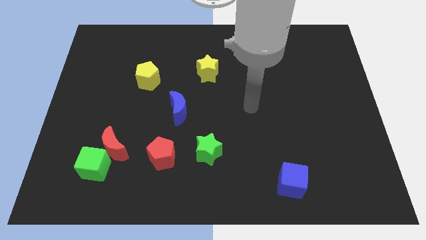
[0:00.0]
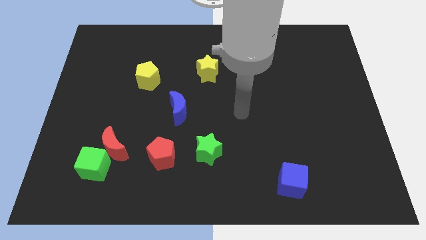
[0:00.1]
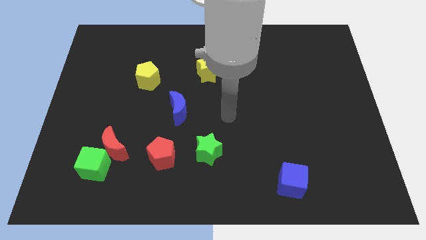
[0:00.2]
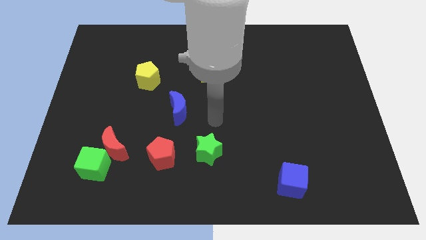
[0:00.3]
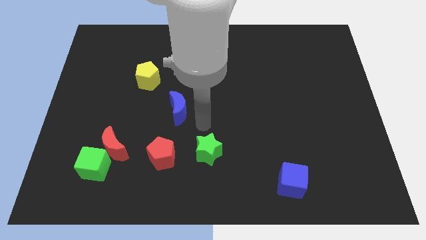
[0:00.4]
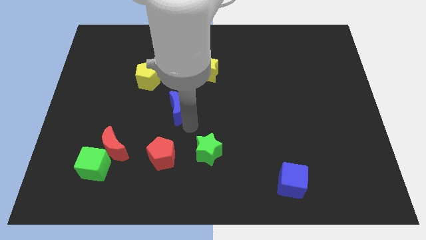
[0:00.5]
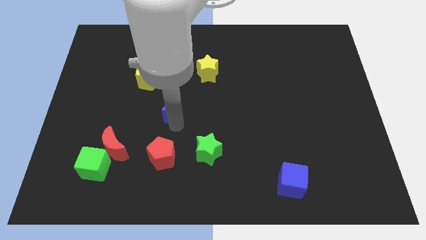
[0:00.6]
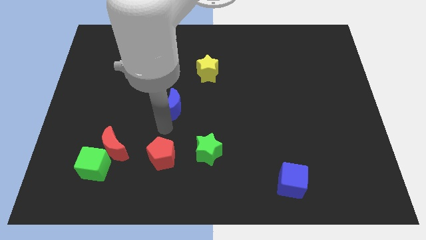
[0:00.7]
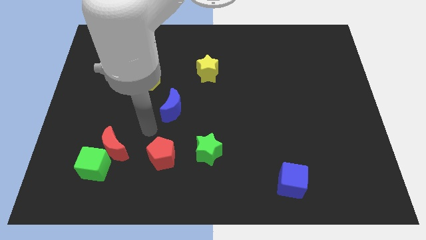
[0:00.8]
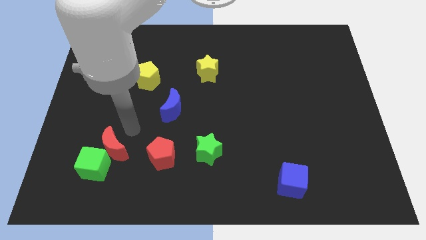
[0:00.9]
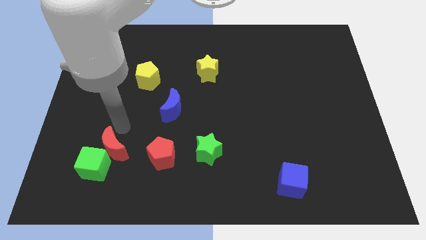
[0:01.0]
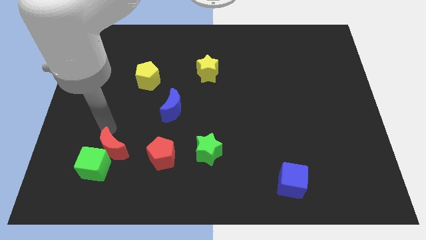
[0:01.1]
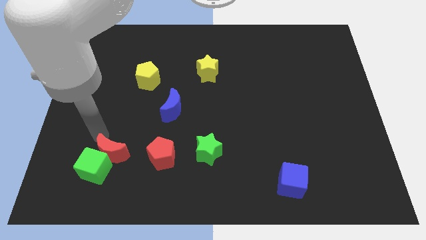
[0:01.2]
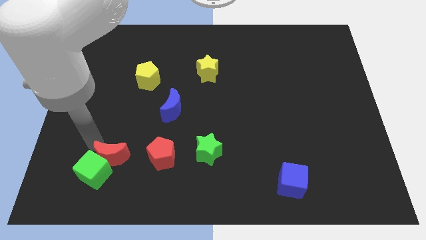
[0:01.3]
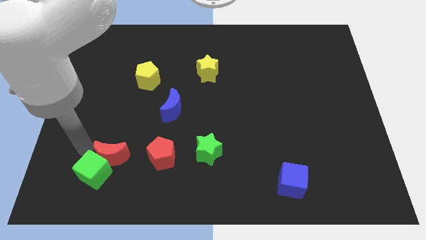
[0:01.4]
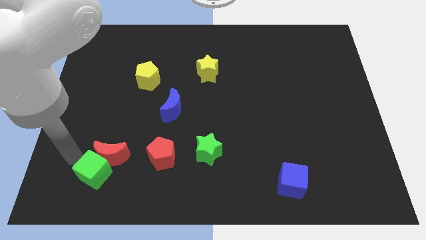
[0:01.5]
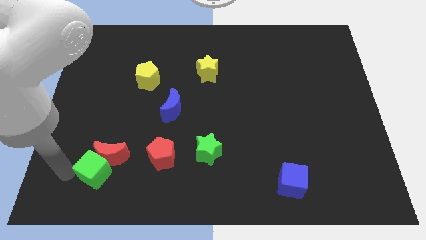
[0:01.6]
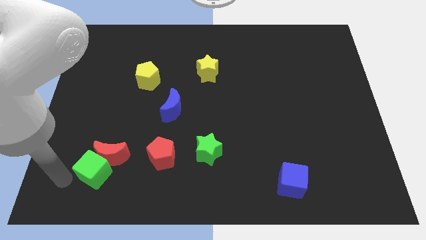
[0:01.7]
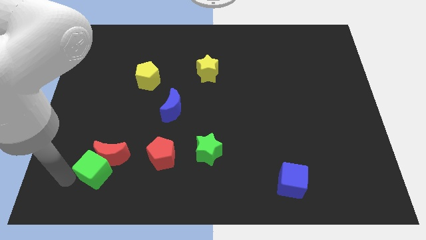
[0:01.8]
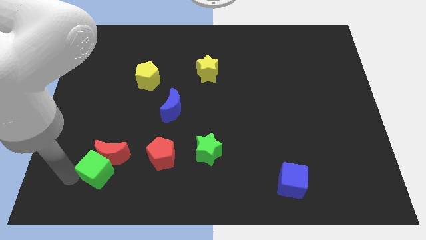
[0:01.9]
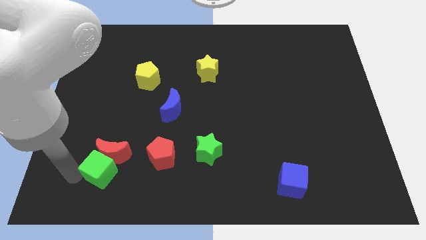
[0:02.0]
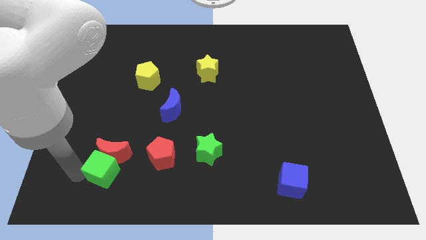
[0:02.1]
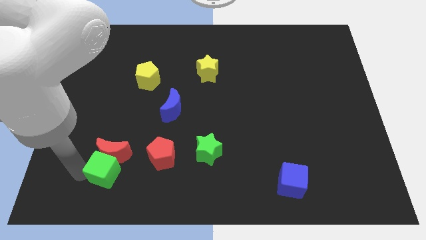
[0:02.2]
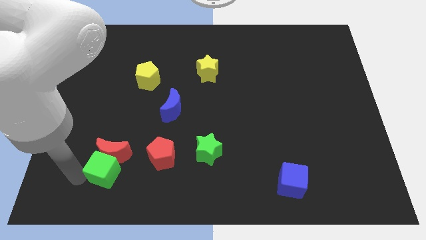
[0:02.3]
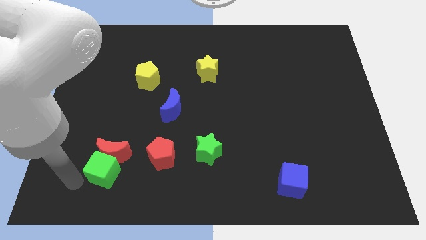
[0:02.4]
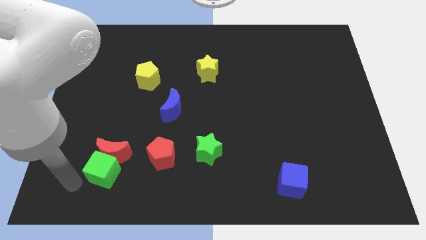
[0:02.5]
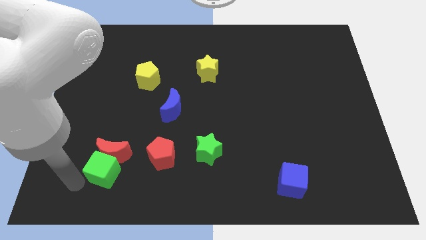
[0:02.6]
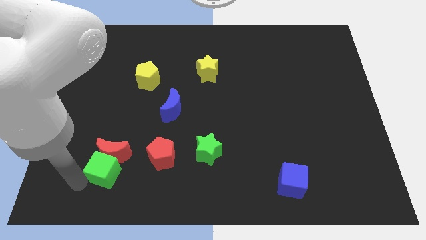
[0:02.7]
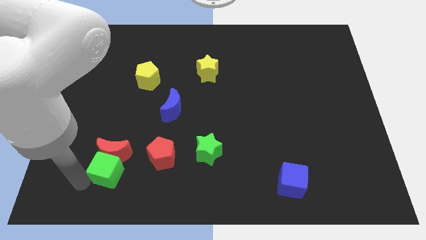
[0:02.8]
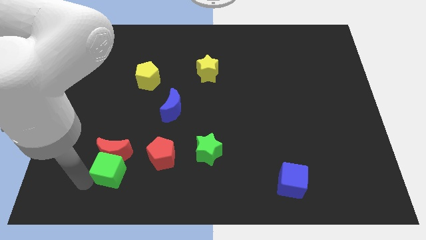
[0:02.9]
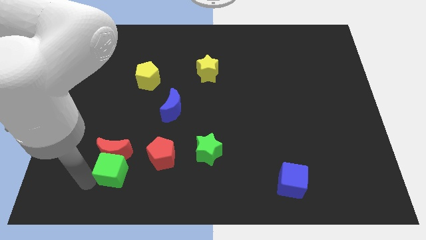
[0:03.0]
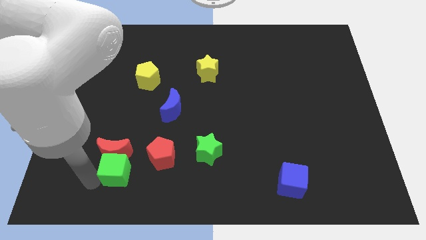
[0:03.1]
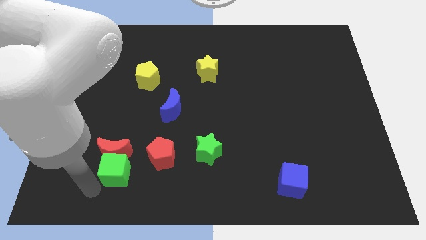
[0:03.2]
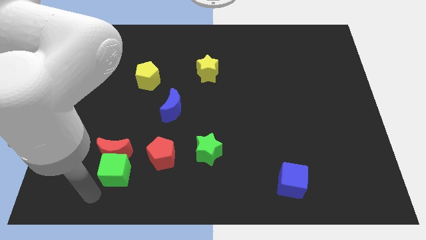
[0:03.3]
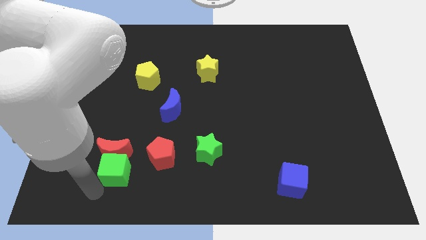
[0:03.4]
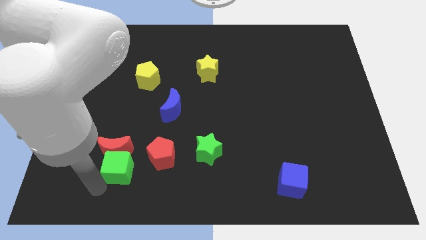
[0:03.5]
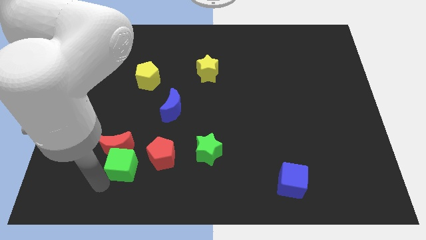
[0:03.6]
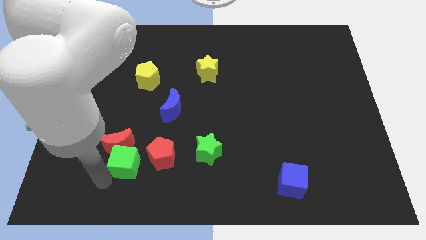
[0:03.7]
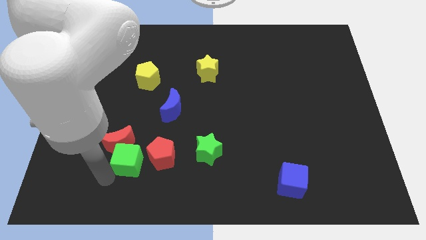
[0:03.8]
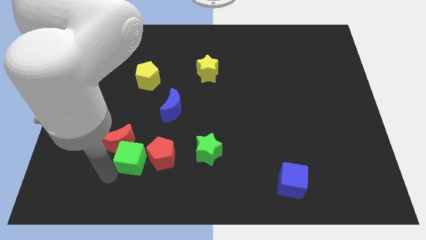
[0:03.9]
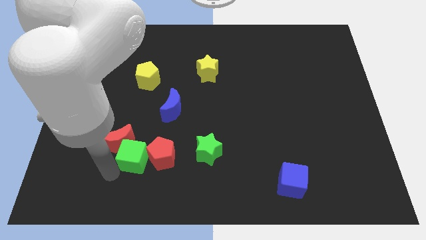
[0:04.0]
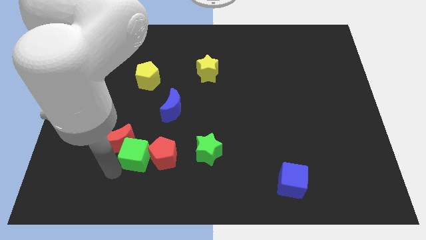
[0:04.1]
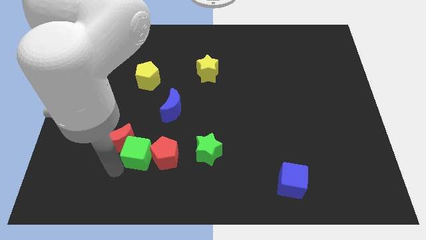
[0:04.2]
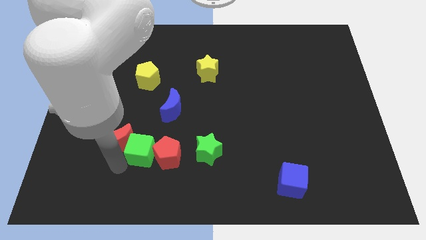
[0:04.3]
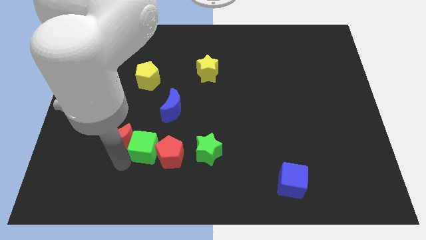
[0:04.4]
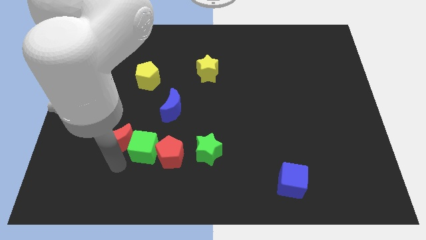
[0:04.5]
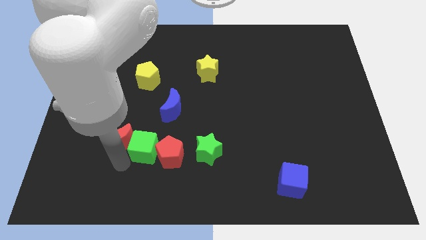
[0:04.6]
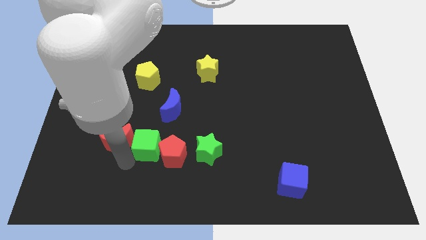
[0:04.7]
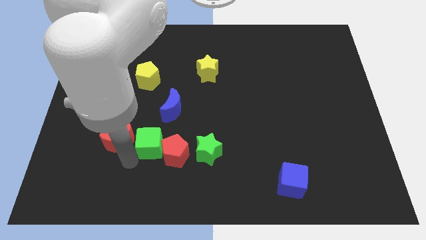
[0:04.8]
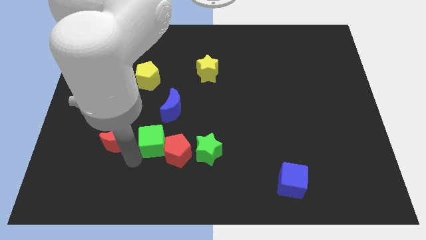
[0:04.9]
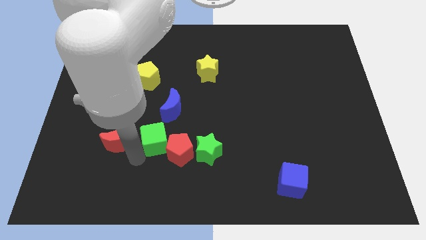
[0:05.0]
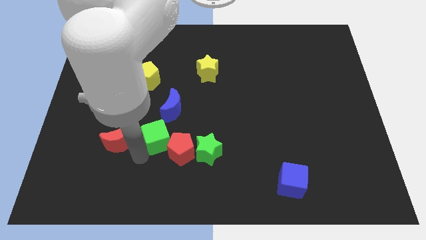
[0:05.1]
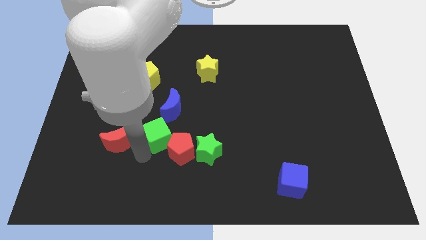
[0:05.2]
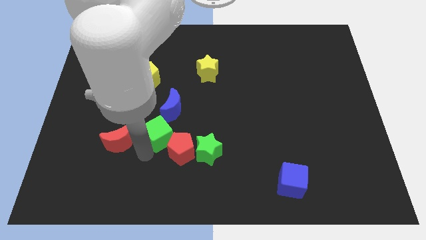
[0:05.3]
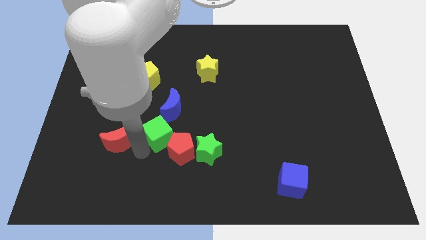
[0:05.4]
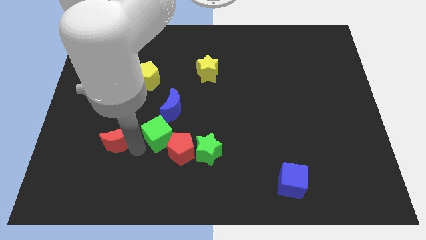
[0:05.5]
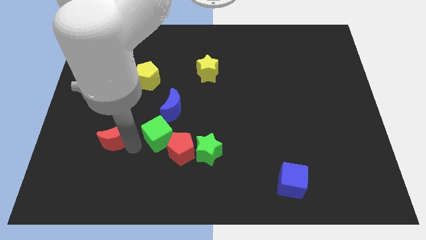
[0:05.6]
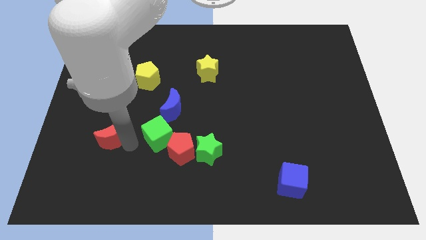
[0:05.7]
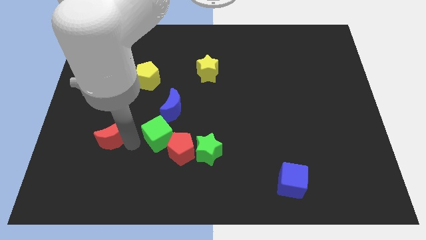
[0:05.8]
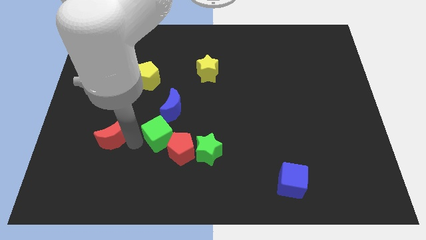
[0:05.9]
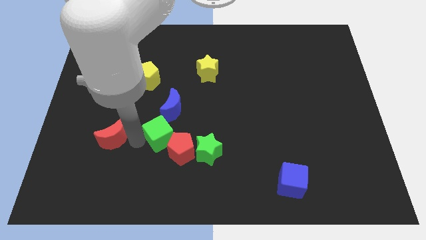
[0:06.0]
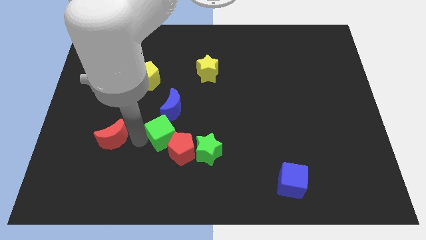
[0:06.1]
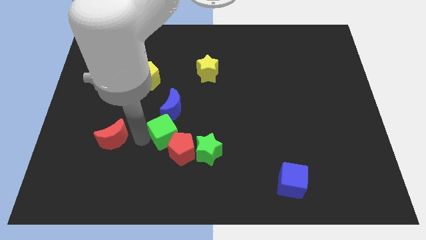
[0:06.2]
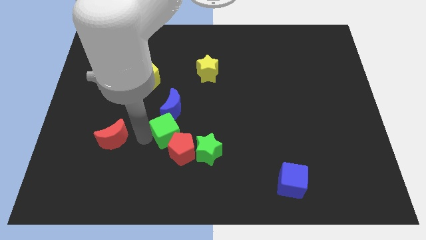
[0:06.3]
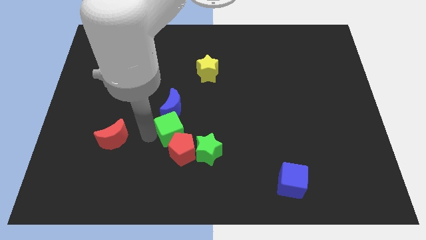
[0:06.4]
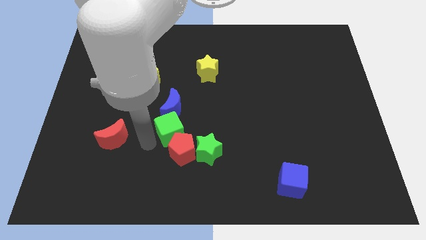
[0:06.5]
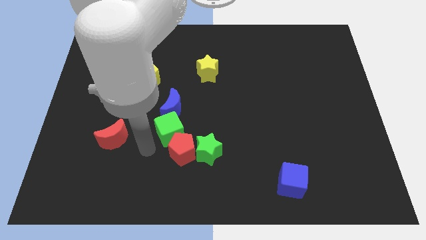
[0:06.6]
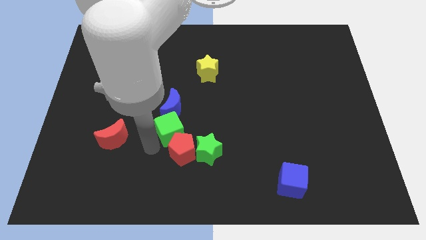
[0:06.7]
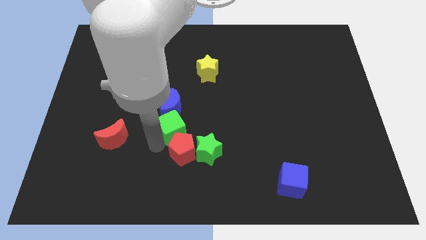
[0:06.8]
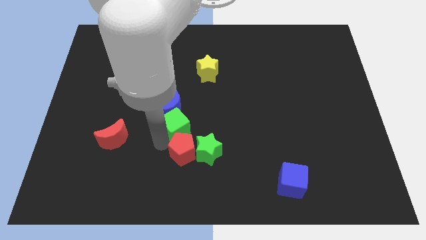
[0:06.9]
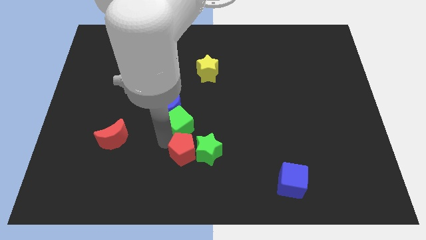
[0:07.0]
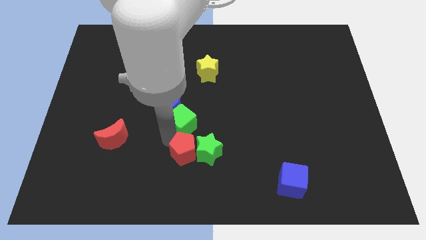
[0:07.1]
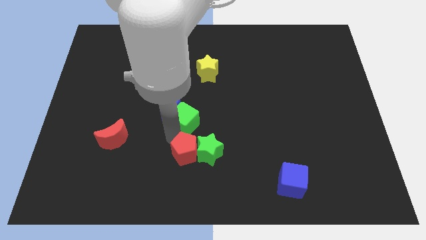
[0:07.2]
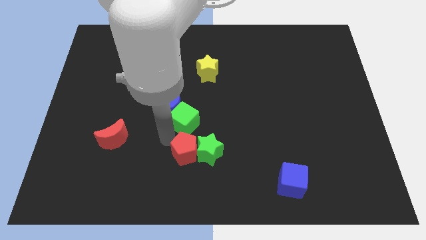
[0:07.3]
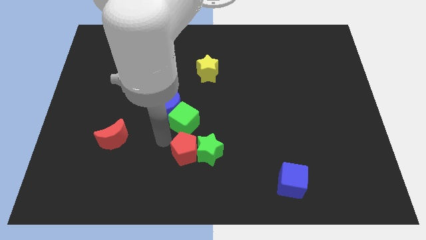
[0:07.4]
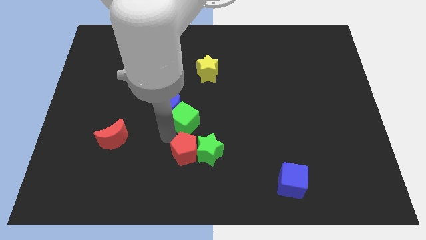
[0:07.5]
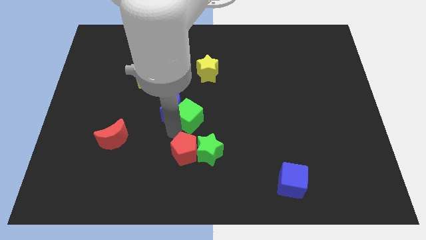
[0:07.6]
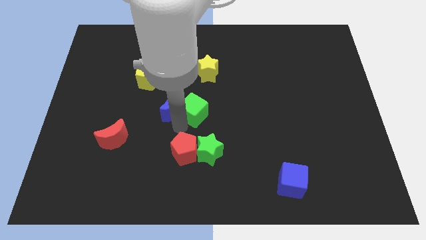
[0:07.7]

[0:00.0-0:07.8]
push the green cube to the bottom of the yellow star
